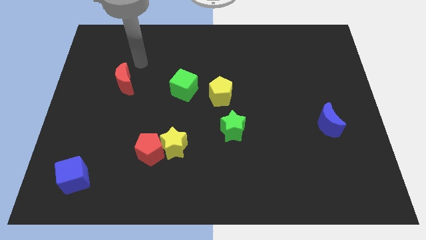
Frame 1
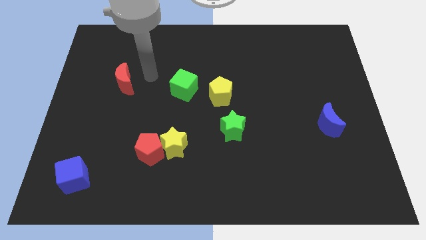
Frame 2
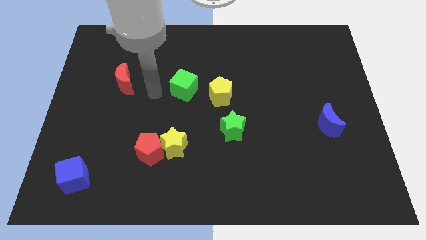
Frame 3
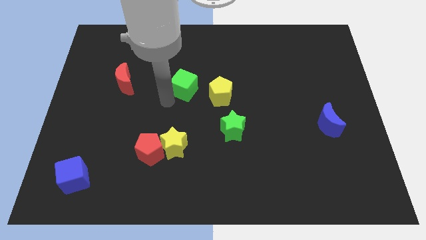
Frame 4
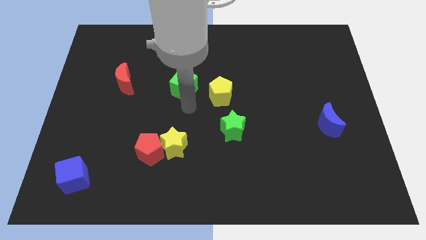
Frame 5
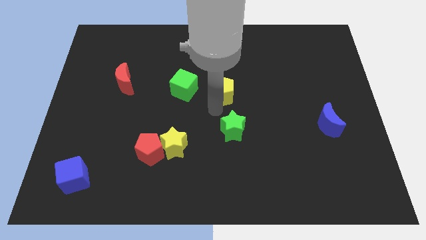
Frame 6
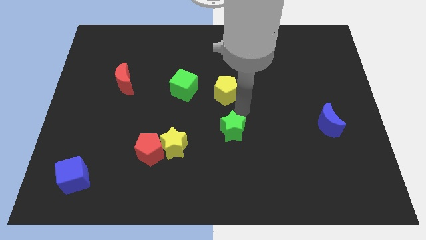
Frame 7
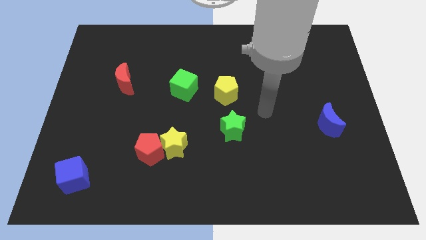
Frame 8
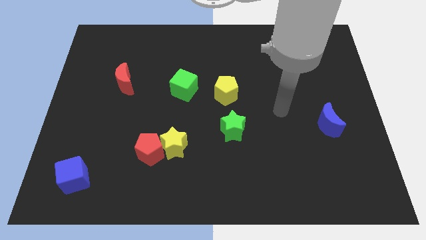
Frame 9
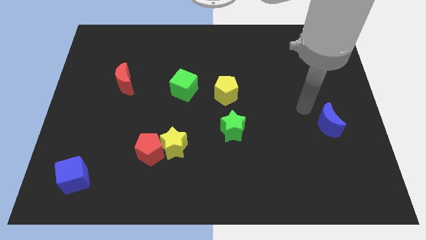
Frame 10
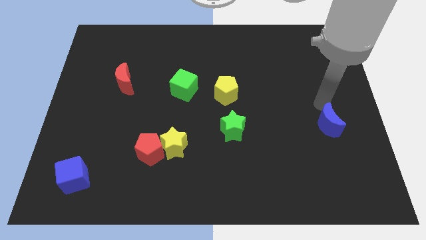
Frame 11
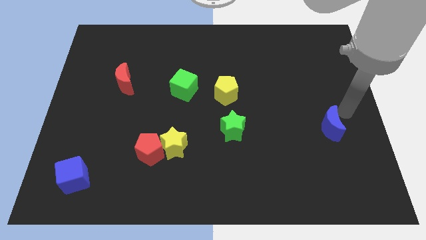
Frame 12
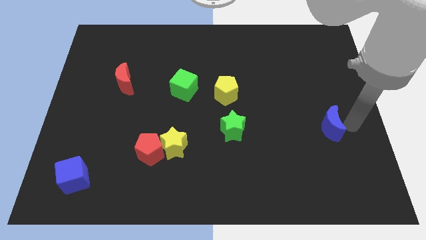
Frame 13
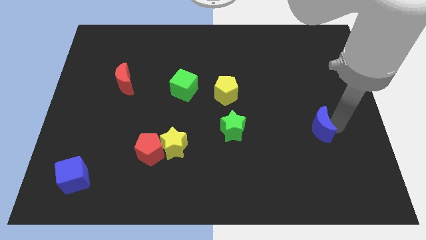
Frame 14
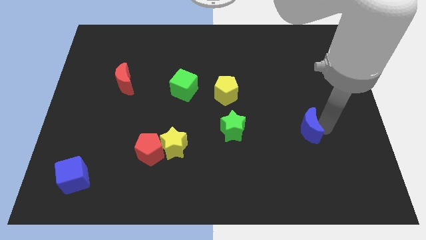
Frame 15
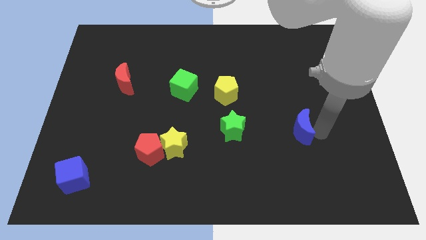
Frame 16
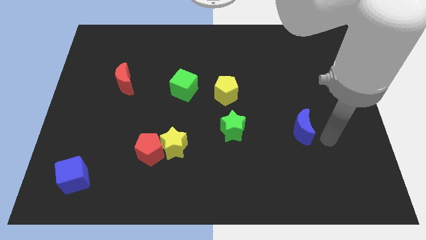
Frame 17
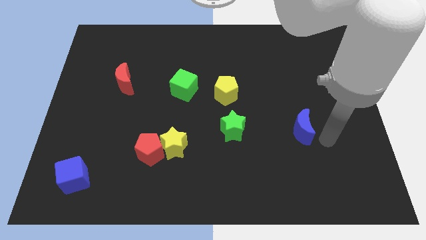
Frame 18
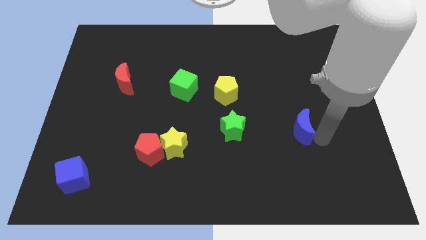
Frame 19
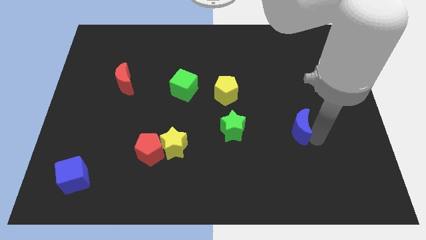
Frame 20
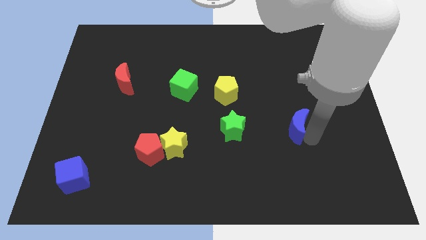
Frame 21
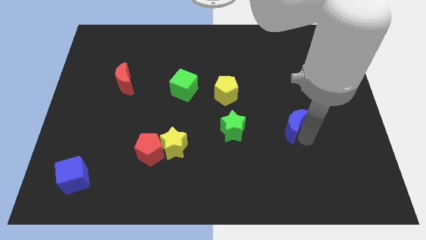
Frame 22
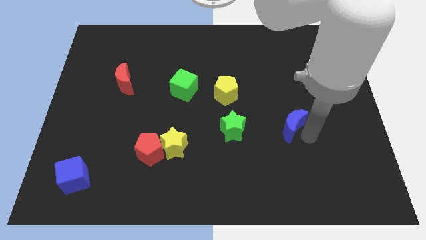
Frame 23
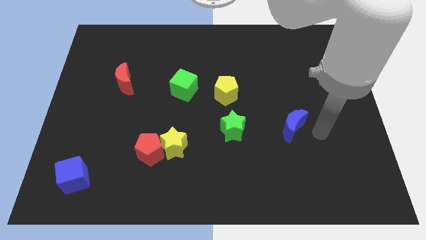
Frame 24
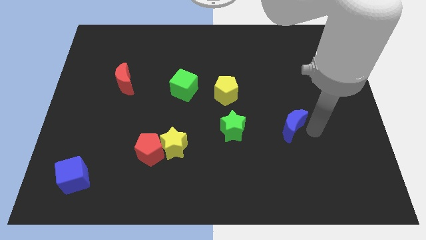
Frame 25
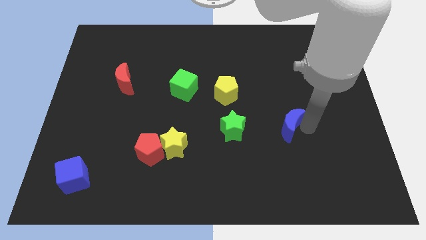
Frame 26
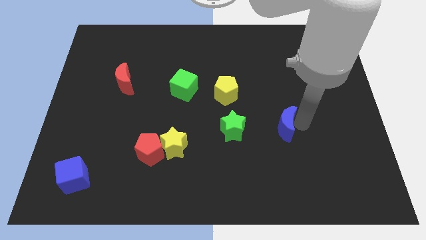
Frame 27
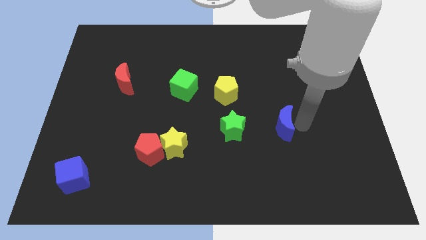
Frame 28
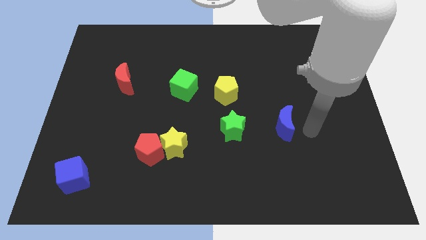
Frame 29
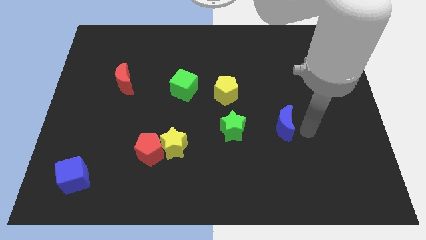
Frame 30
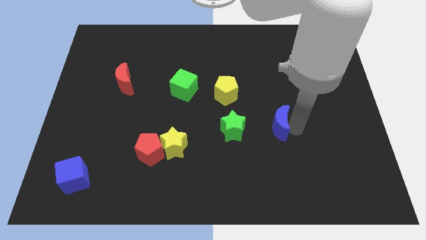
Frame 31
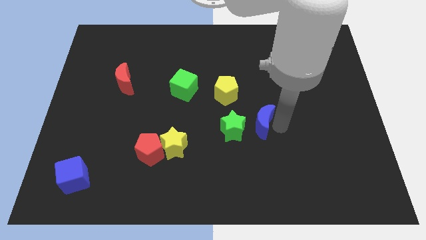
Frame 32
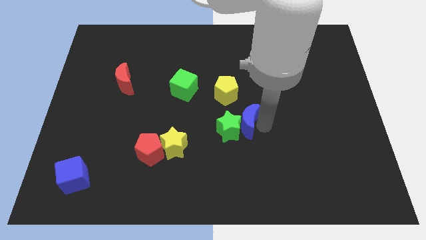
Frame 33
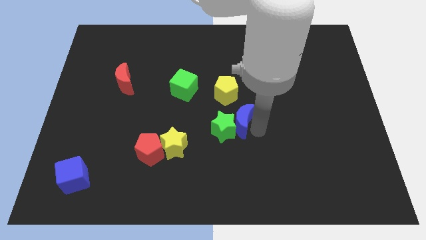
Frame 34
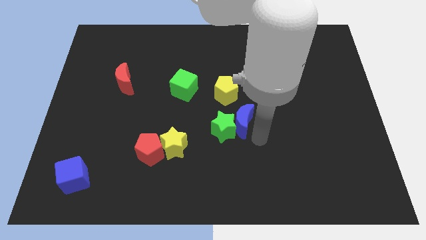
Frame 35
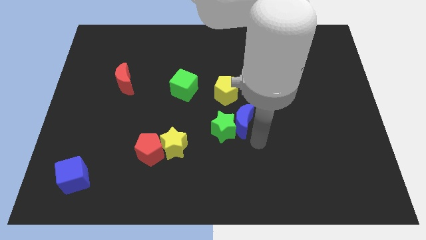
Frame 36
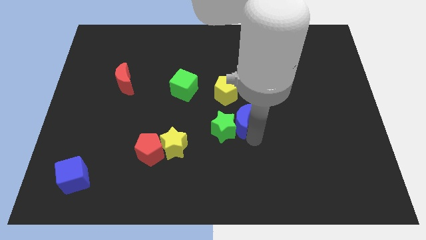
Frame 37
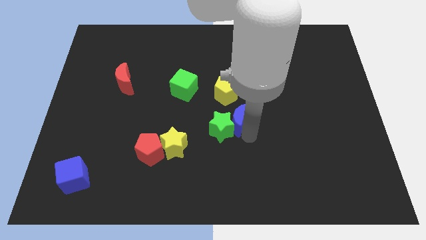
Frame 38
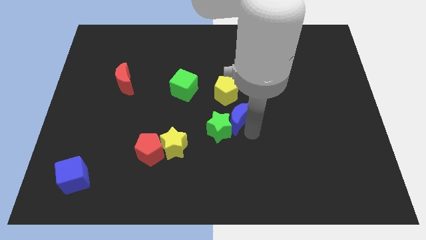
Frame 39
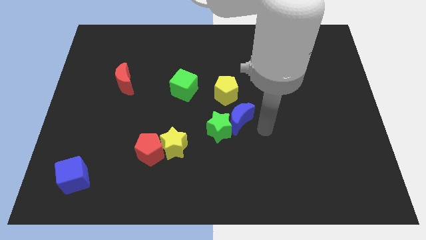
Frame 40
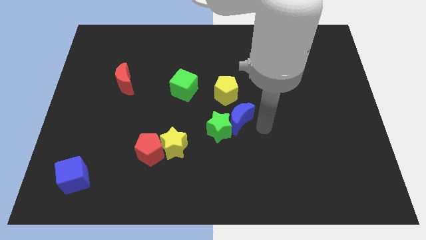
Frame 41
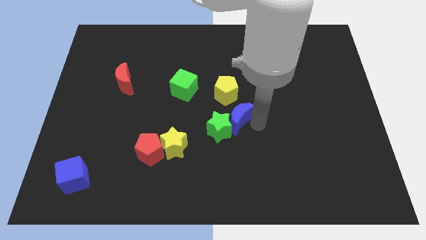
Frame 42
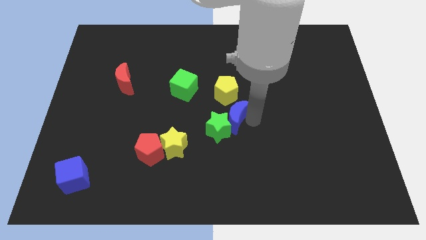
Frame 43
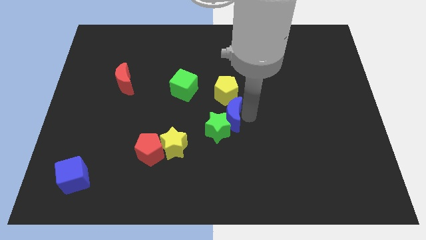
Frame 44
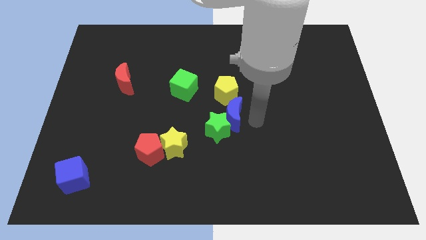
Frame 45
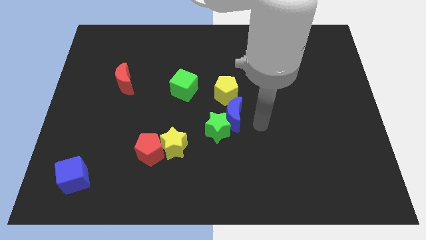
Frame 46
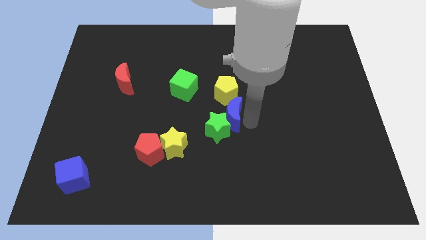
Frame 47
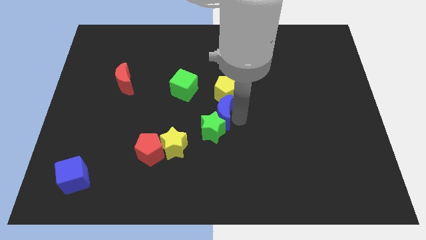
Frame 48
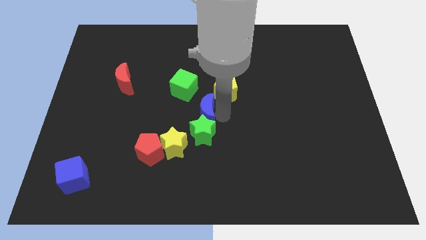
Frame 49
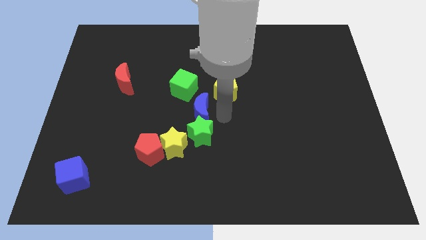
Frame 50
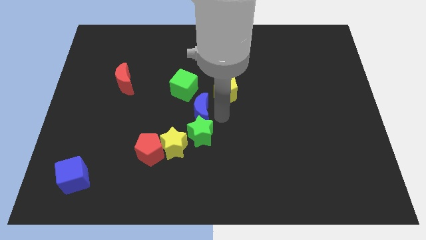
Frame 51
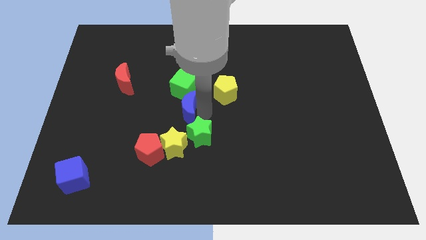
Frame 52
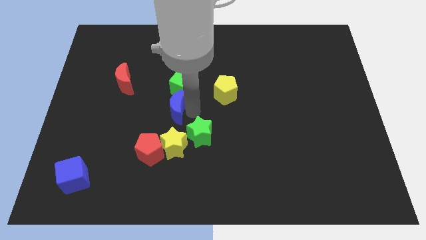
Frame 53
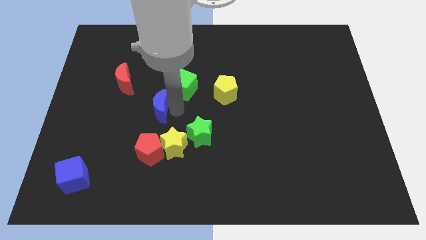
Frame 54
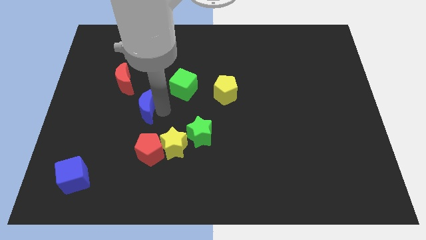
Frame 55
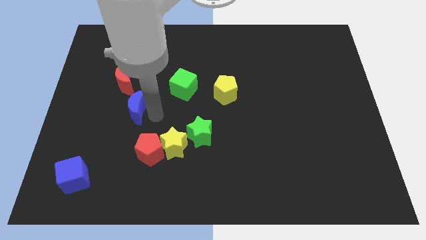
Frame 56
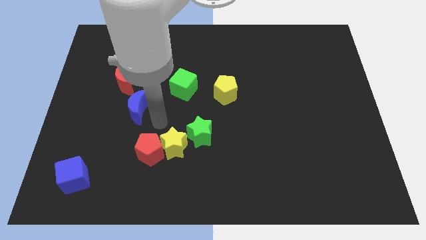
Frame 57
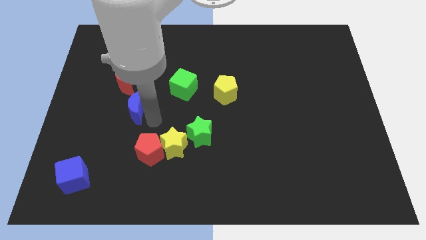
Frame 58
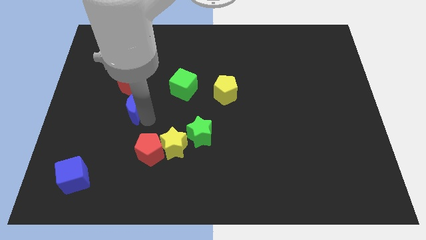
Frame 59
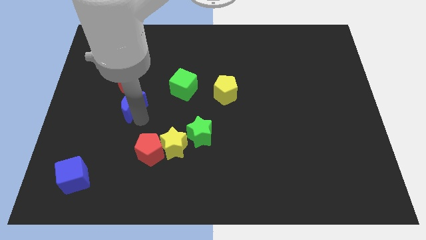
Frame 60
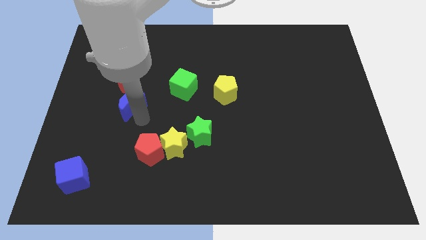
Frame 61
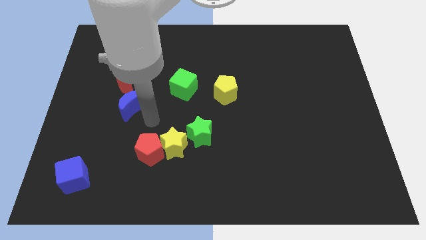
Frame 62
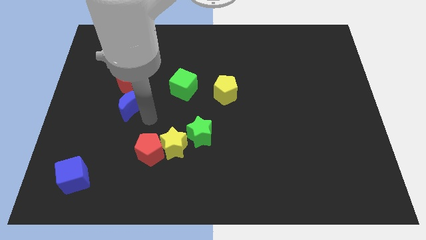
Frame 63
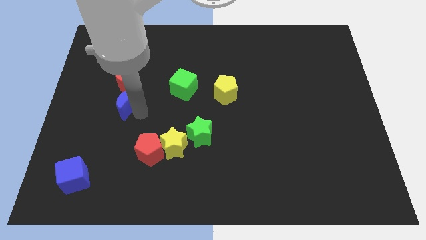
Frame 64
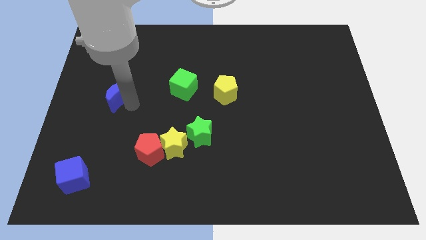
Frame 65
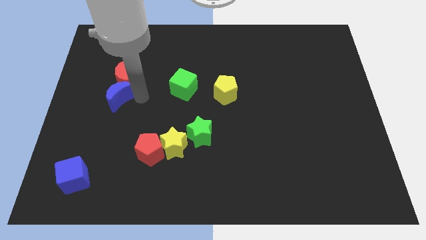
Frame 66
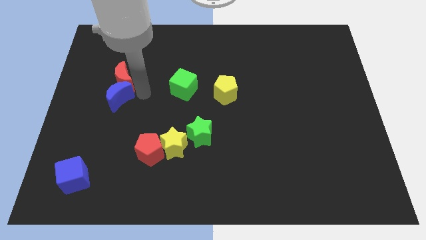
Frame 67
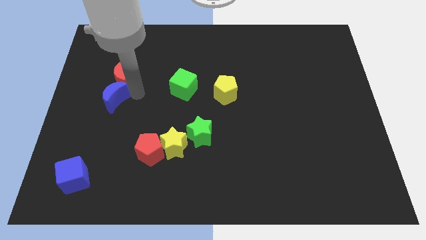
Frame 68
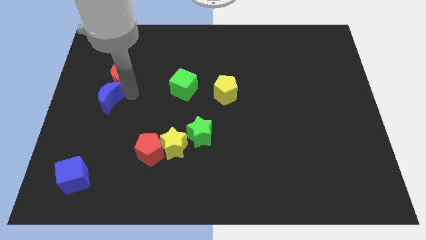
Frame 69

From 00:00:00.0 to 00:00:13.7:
slide the blue moon to the center left

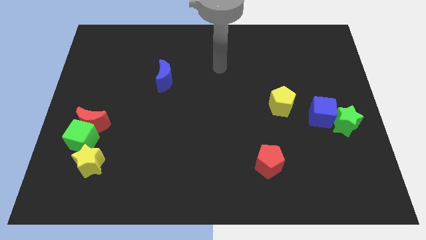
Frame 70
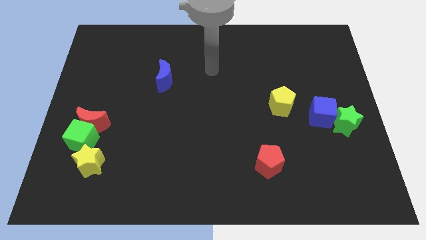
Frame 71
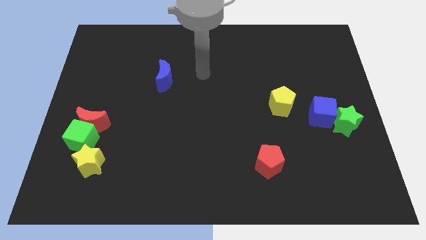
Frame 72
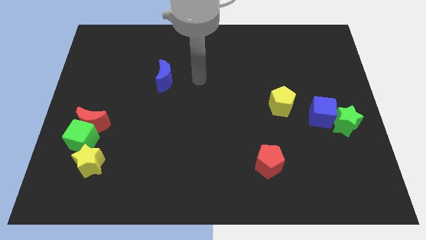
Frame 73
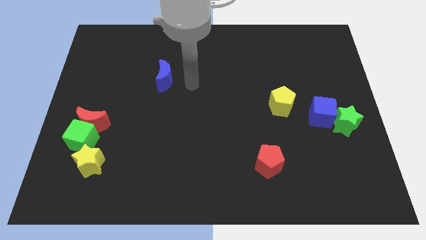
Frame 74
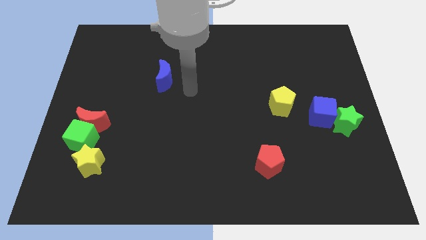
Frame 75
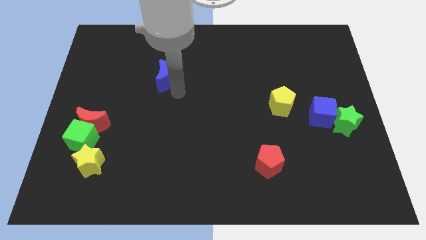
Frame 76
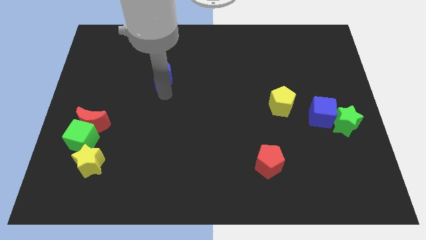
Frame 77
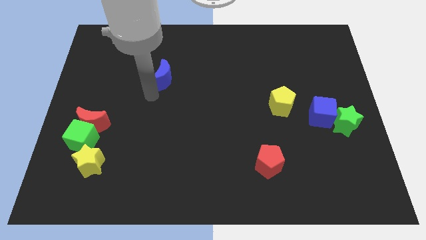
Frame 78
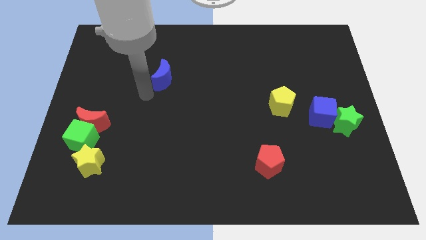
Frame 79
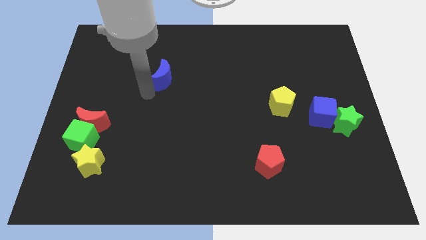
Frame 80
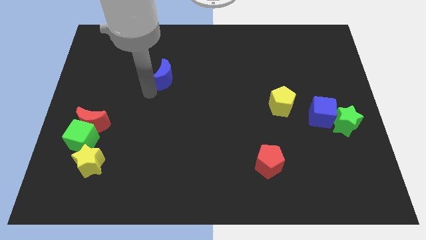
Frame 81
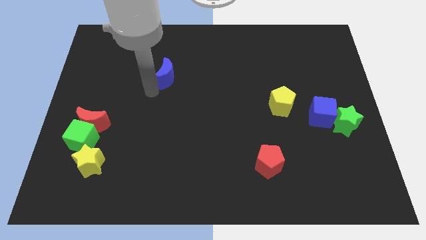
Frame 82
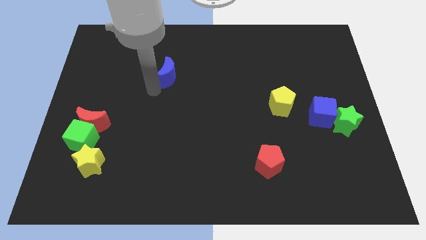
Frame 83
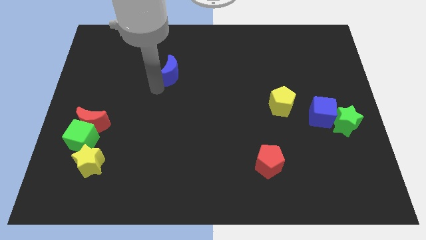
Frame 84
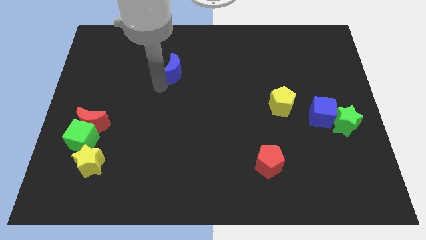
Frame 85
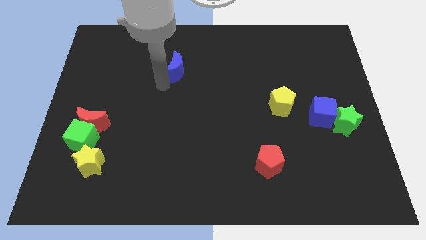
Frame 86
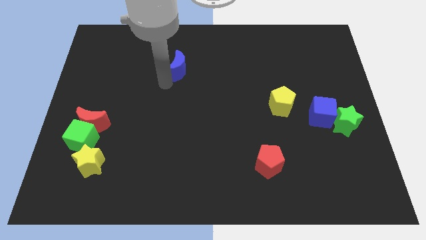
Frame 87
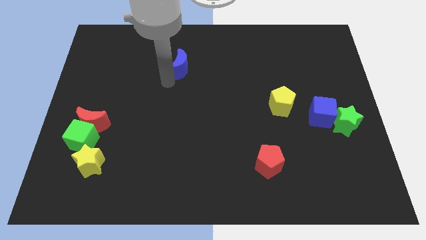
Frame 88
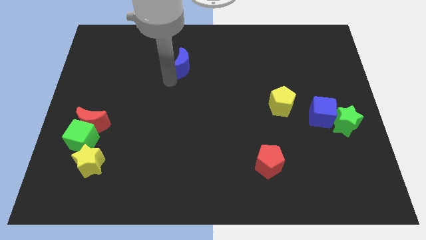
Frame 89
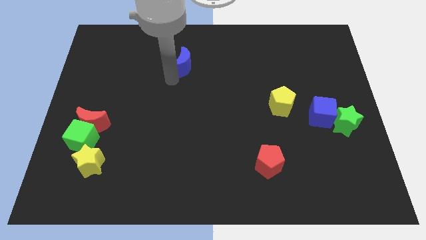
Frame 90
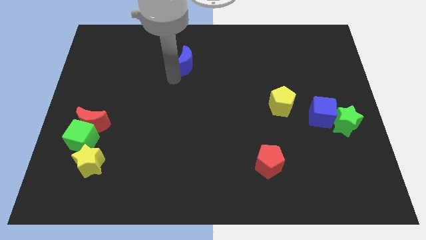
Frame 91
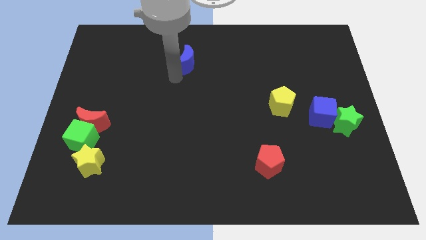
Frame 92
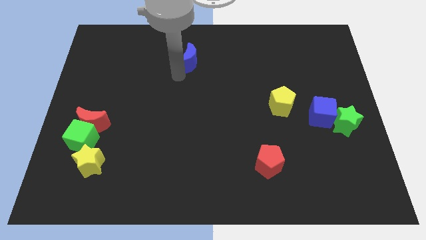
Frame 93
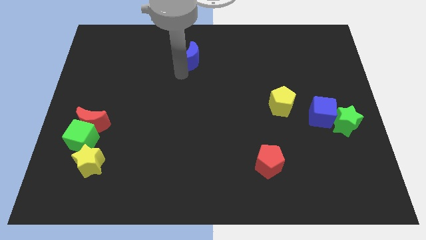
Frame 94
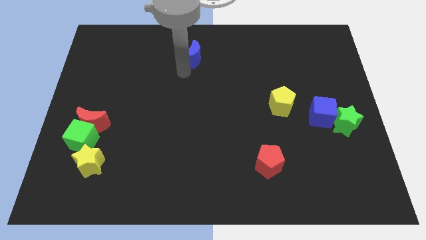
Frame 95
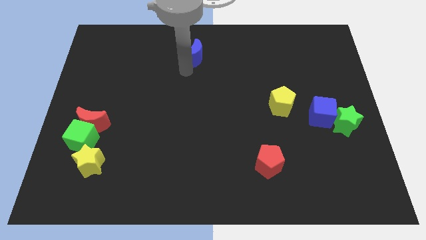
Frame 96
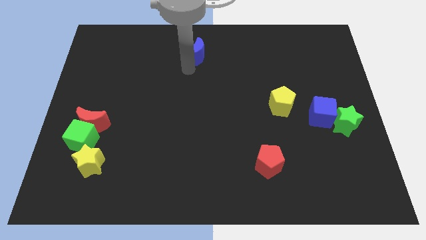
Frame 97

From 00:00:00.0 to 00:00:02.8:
put the blue moon to the top side
